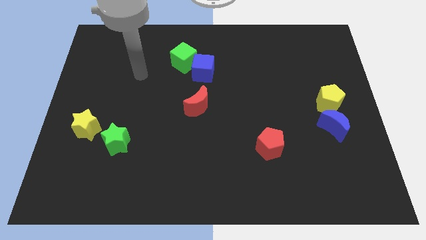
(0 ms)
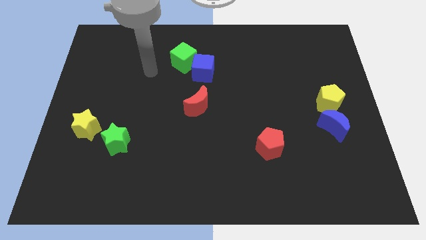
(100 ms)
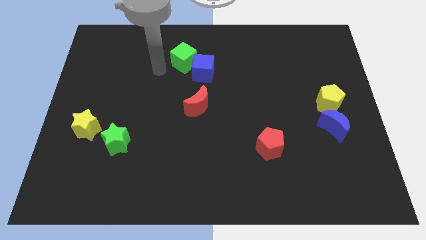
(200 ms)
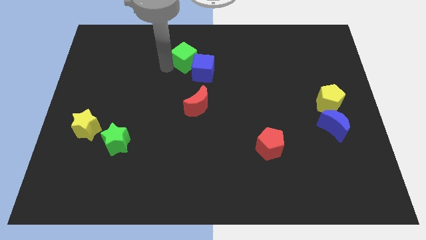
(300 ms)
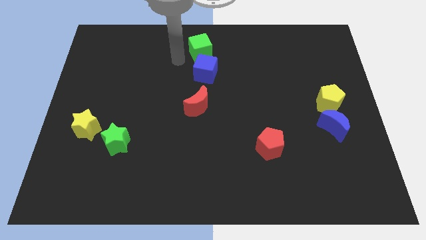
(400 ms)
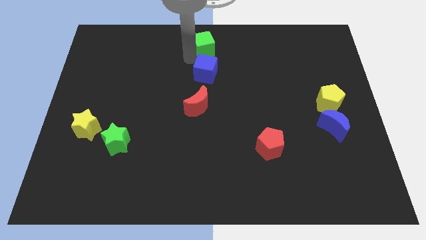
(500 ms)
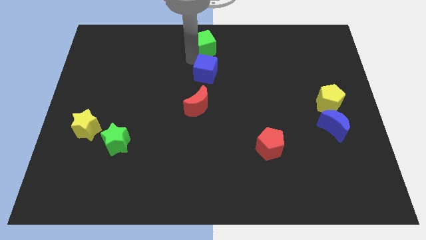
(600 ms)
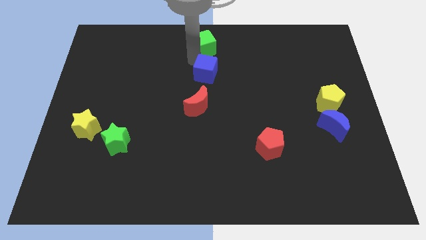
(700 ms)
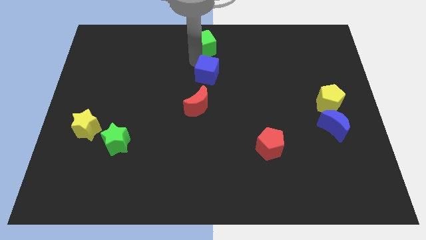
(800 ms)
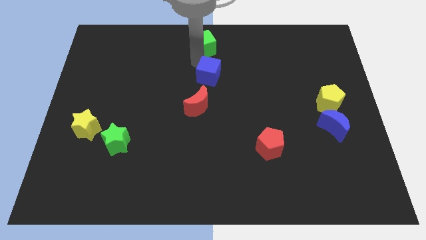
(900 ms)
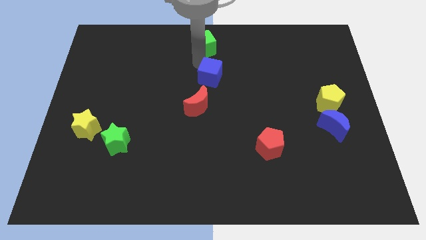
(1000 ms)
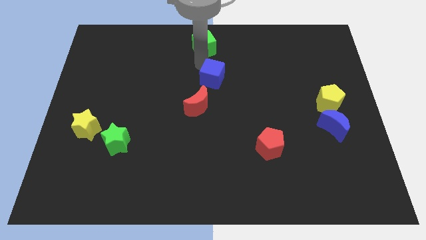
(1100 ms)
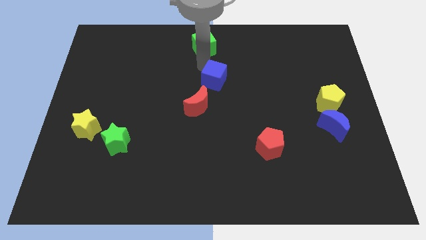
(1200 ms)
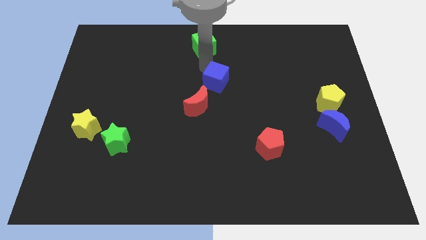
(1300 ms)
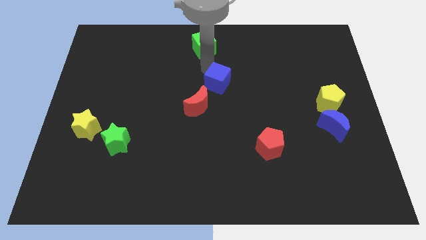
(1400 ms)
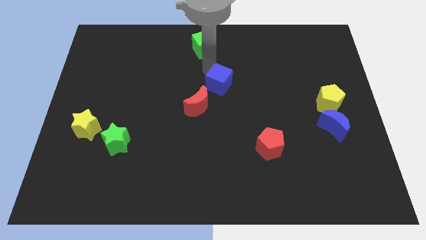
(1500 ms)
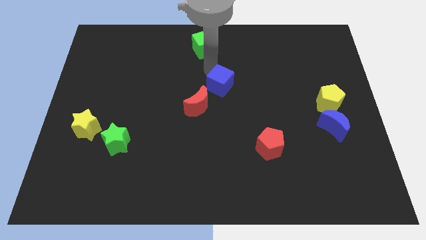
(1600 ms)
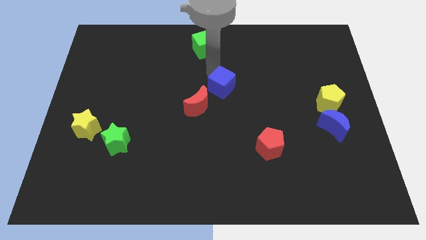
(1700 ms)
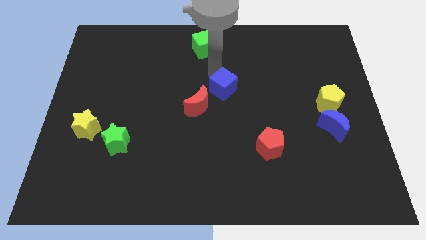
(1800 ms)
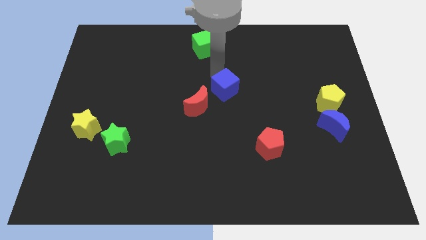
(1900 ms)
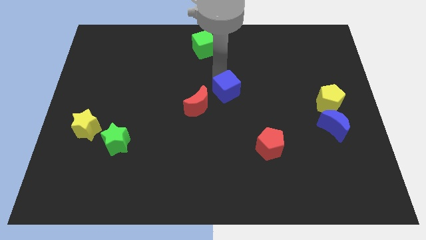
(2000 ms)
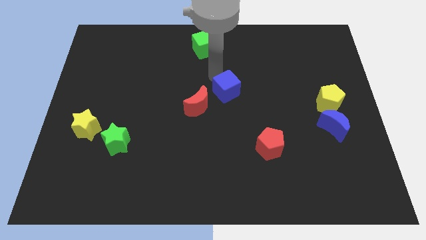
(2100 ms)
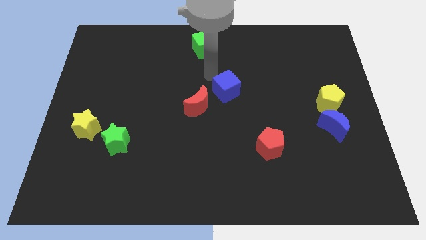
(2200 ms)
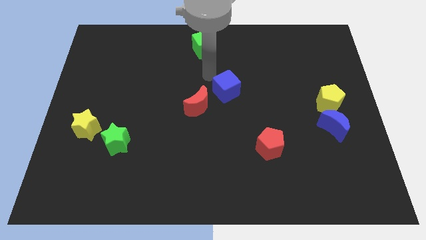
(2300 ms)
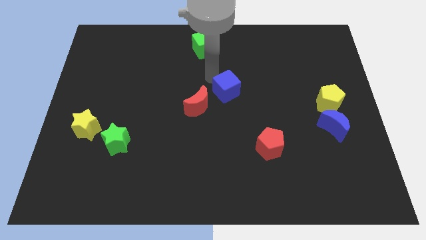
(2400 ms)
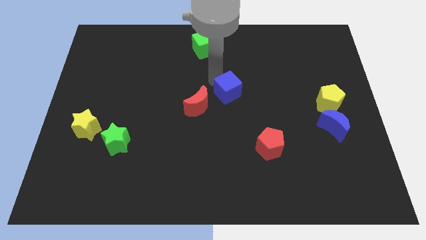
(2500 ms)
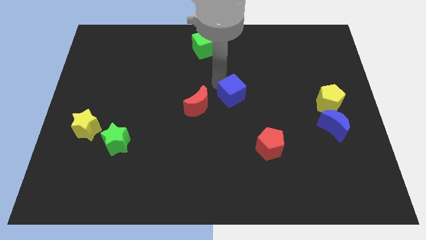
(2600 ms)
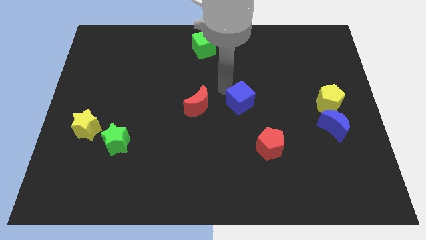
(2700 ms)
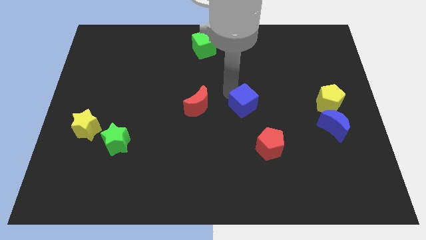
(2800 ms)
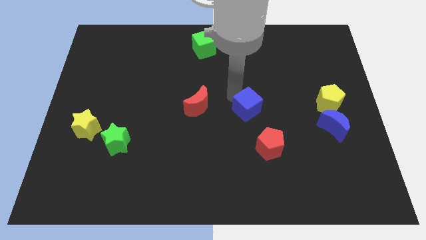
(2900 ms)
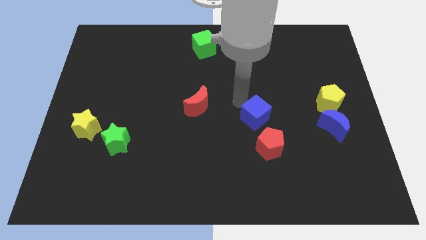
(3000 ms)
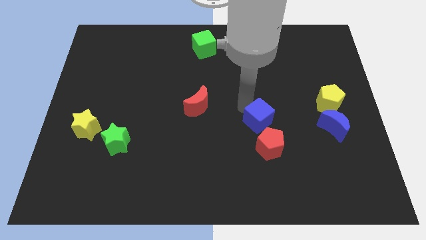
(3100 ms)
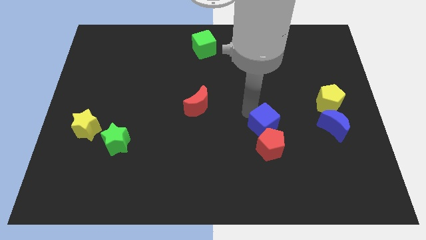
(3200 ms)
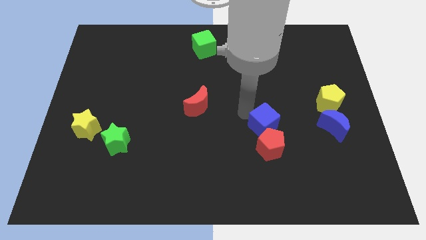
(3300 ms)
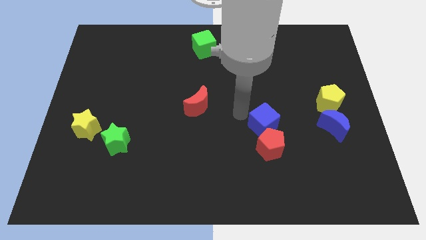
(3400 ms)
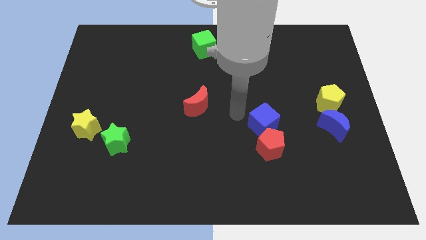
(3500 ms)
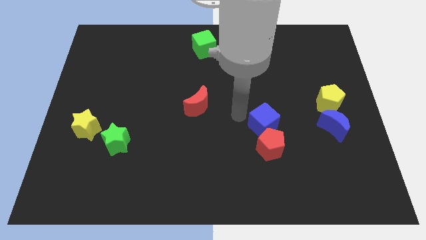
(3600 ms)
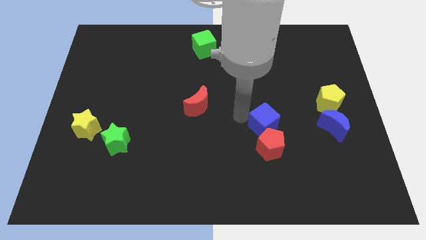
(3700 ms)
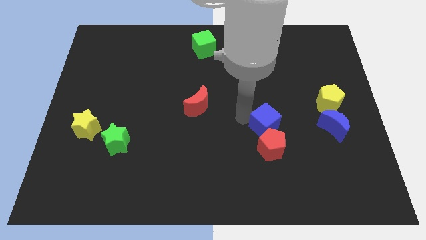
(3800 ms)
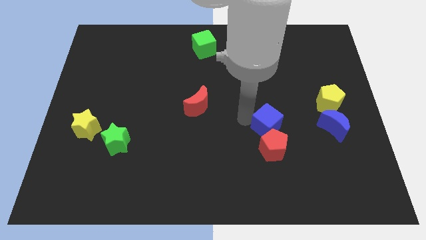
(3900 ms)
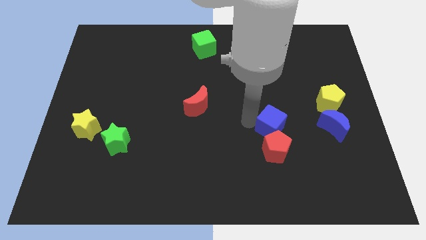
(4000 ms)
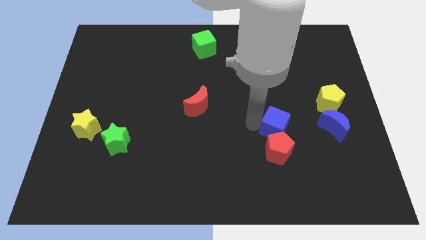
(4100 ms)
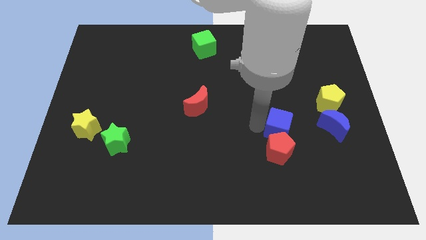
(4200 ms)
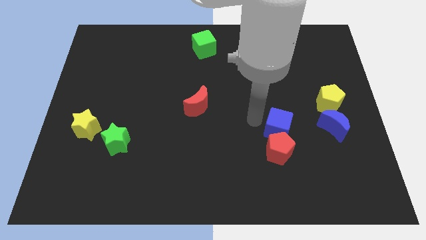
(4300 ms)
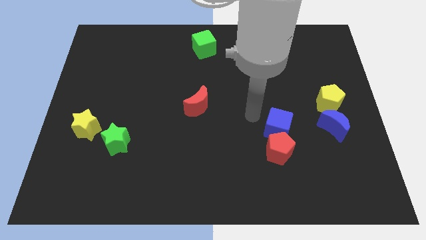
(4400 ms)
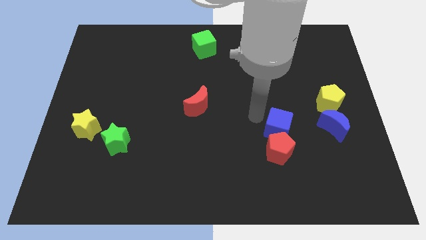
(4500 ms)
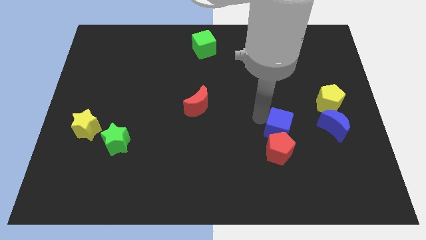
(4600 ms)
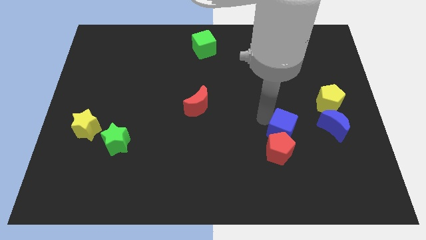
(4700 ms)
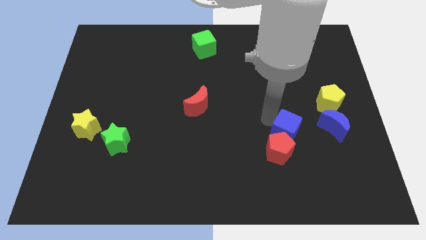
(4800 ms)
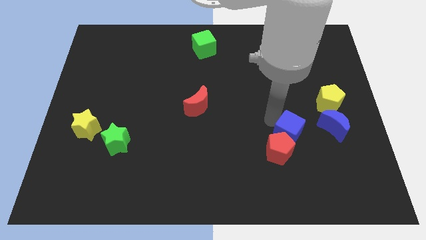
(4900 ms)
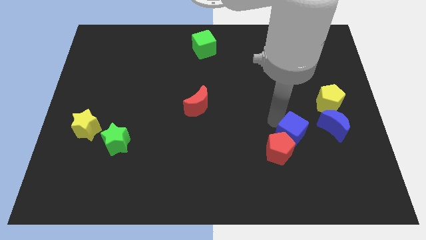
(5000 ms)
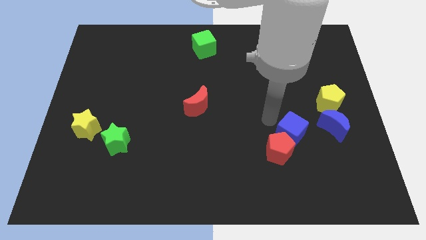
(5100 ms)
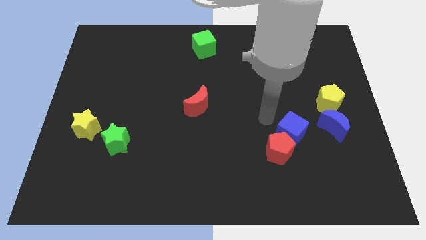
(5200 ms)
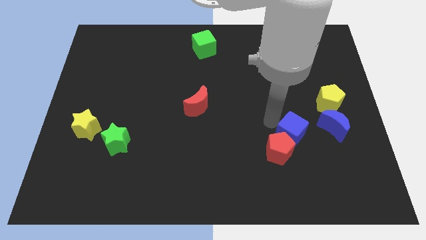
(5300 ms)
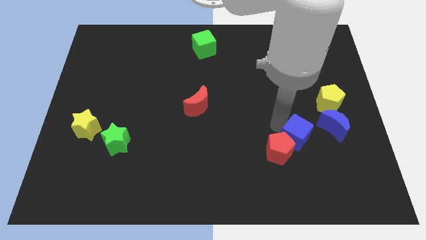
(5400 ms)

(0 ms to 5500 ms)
move the blue cube to the bottom left side of the blue moon

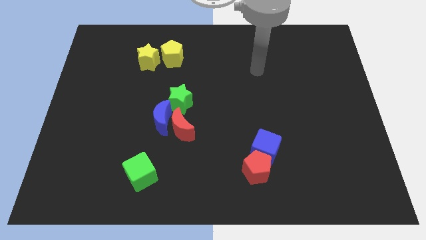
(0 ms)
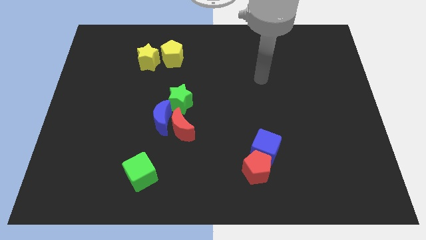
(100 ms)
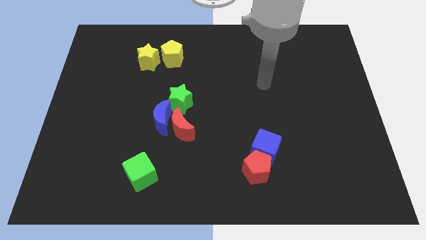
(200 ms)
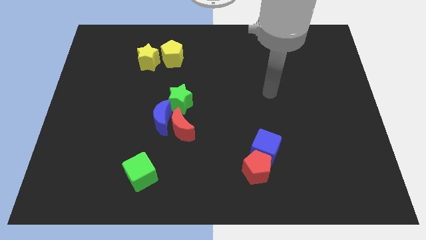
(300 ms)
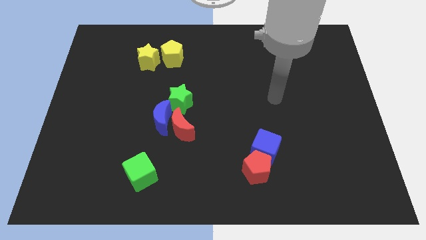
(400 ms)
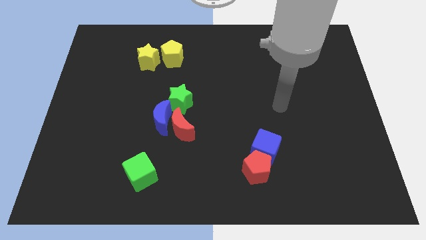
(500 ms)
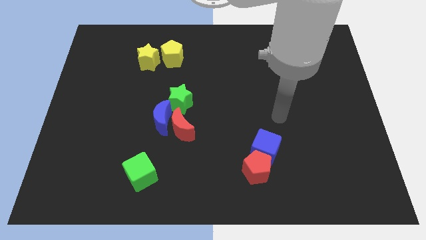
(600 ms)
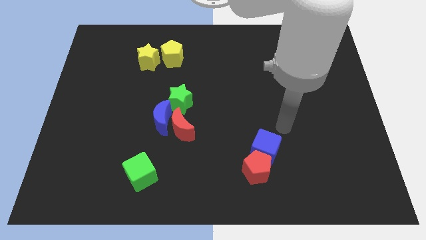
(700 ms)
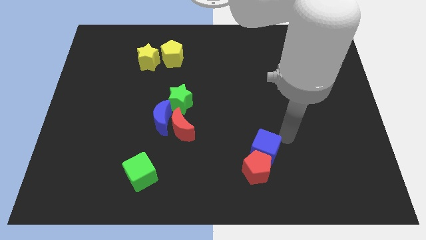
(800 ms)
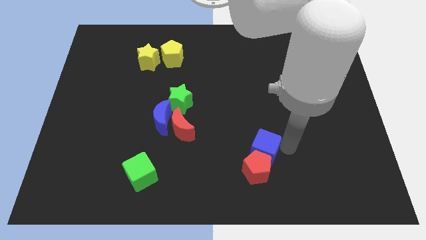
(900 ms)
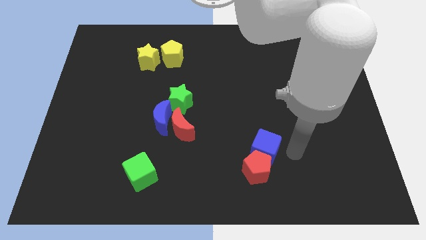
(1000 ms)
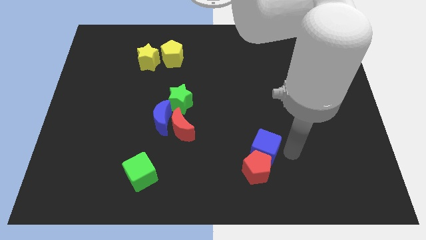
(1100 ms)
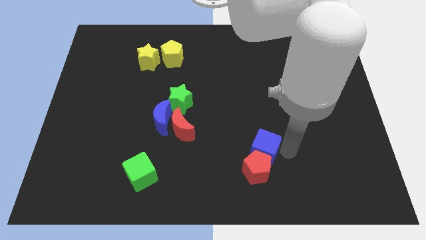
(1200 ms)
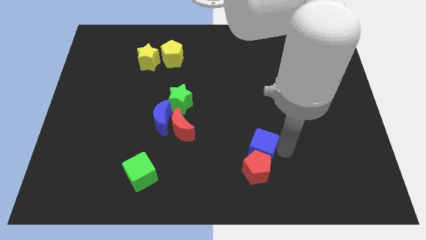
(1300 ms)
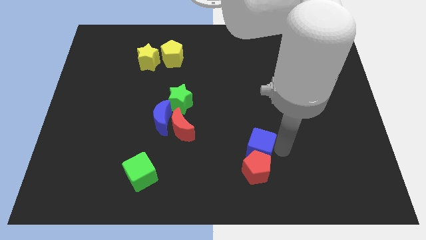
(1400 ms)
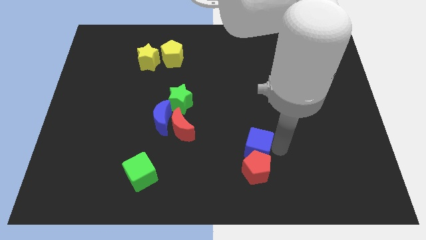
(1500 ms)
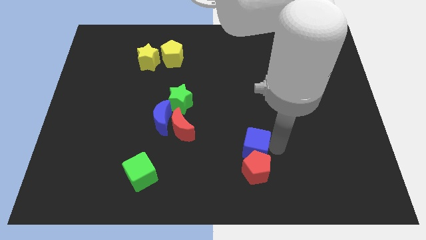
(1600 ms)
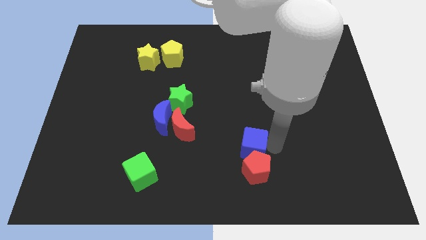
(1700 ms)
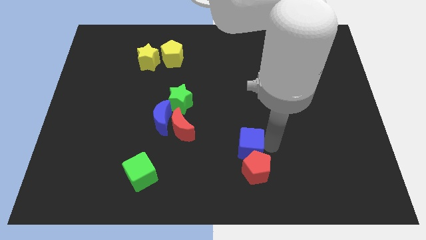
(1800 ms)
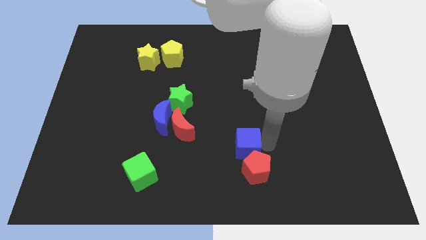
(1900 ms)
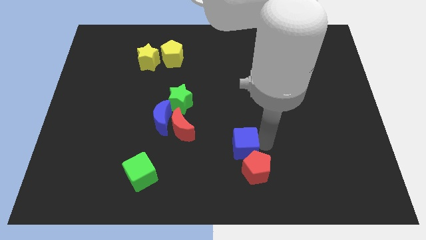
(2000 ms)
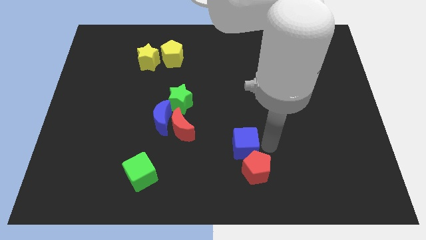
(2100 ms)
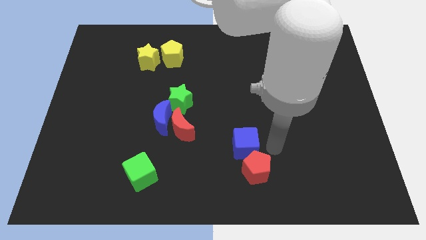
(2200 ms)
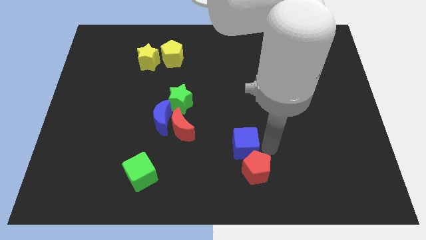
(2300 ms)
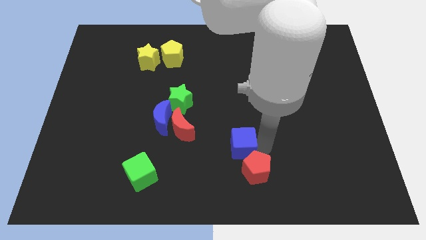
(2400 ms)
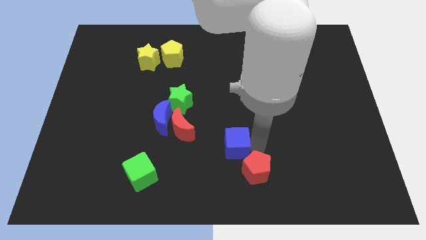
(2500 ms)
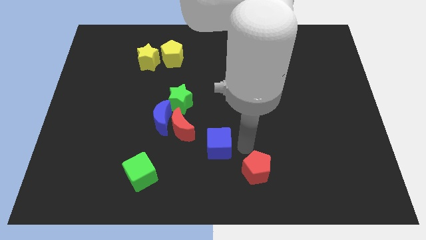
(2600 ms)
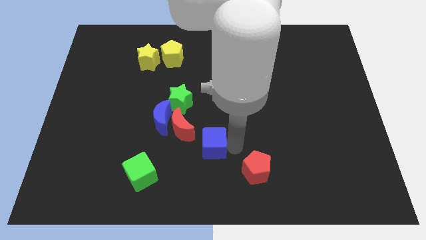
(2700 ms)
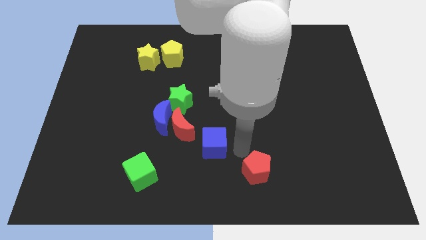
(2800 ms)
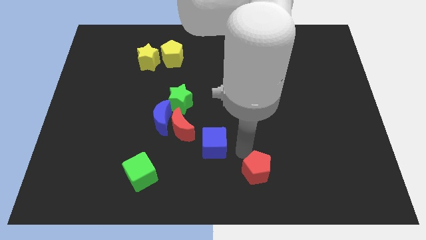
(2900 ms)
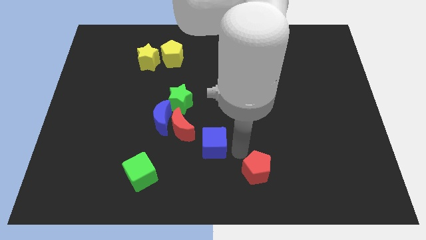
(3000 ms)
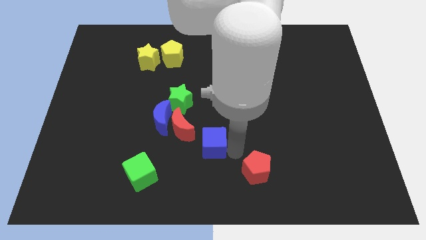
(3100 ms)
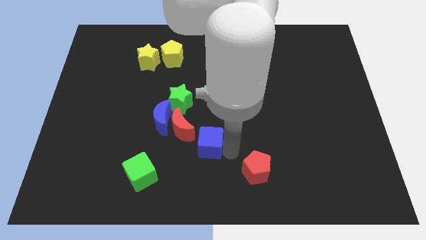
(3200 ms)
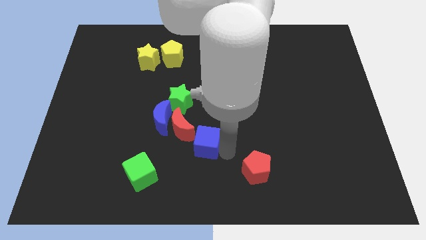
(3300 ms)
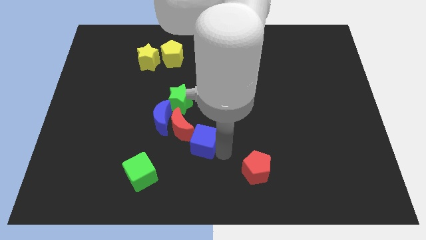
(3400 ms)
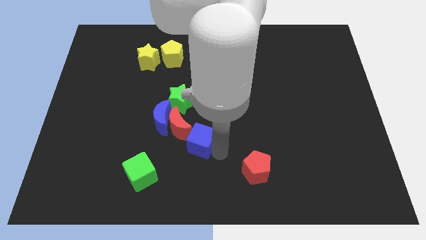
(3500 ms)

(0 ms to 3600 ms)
slide the blue cube to the bottom side of the green star
